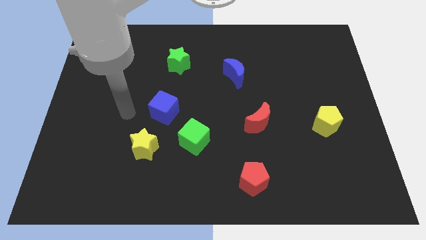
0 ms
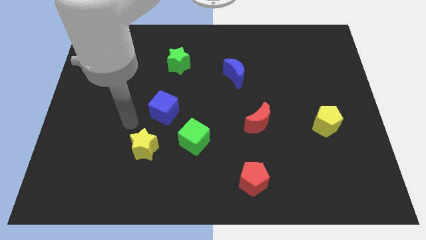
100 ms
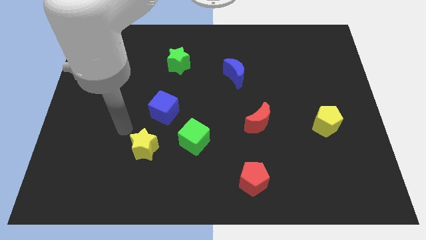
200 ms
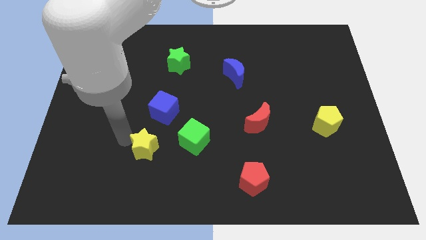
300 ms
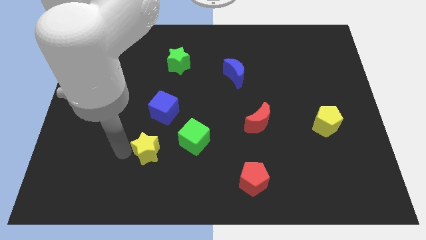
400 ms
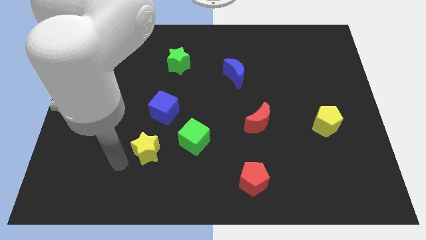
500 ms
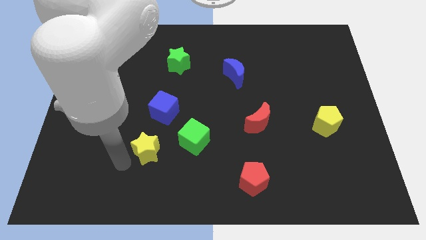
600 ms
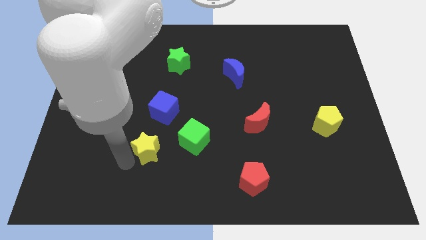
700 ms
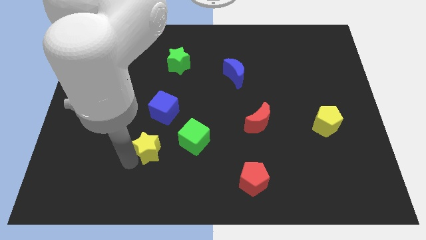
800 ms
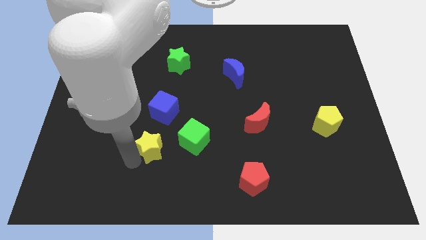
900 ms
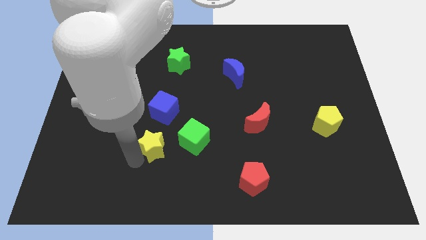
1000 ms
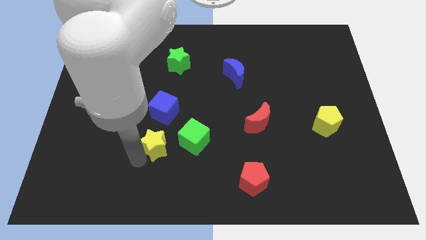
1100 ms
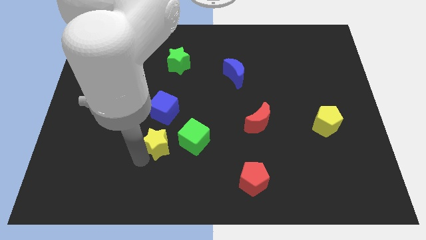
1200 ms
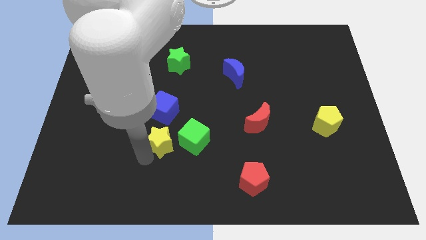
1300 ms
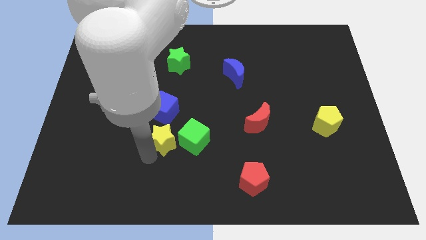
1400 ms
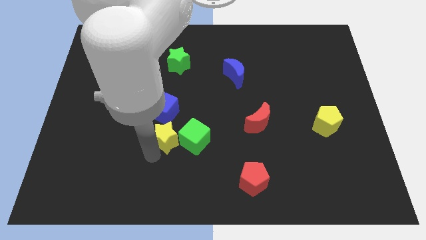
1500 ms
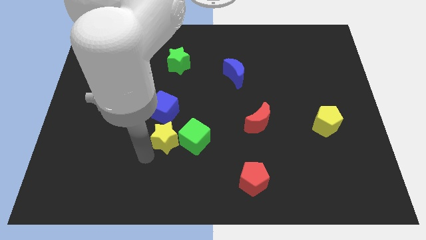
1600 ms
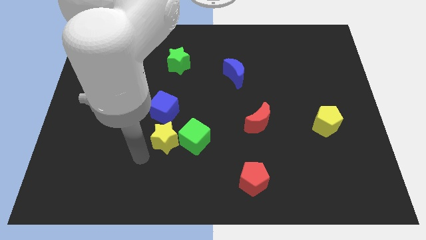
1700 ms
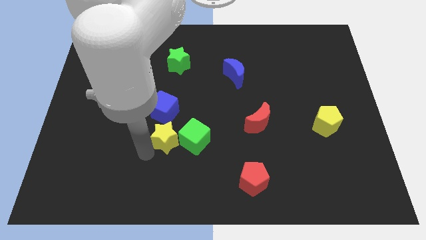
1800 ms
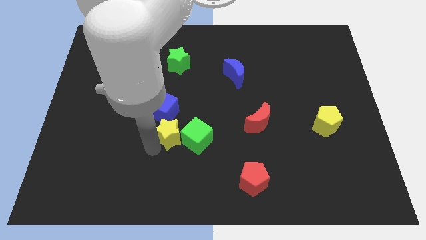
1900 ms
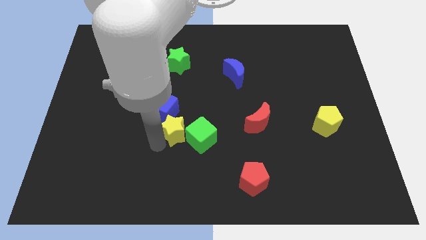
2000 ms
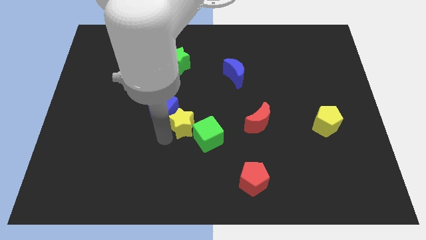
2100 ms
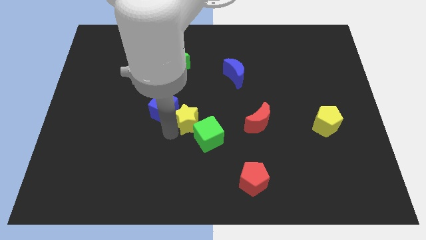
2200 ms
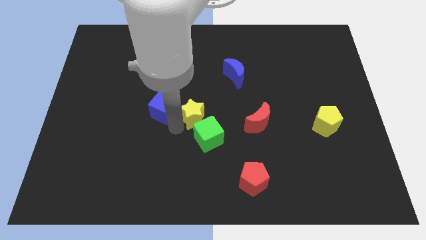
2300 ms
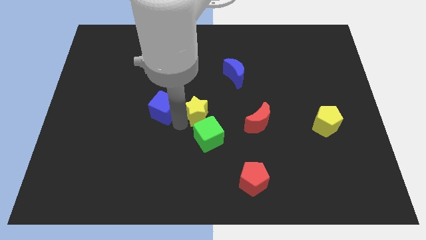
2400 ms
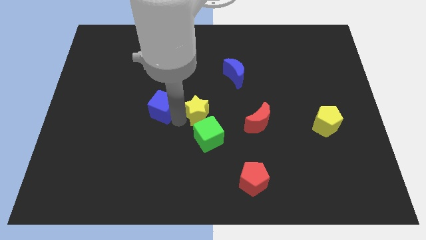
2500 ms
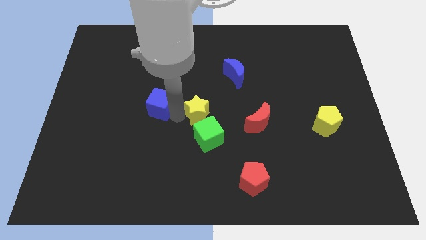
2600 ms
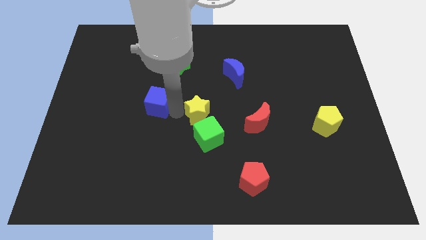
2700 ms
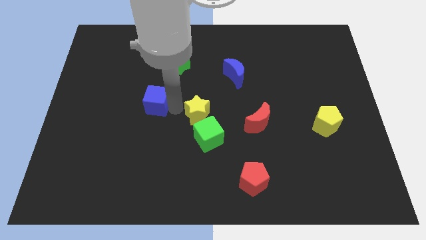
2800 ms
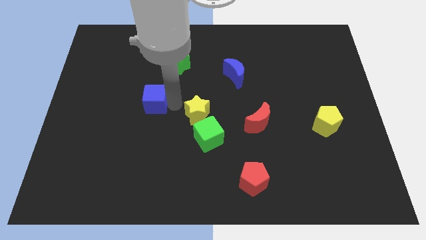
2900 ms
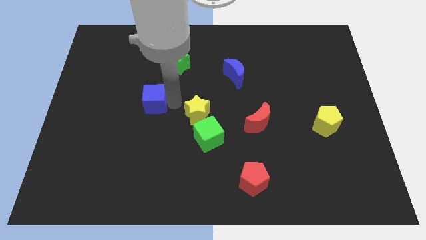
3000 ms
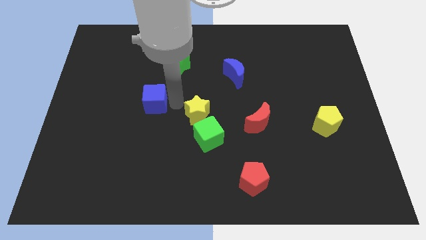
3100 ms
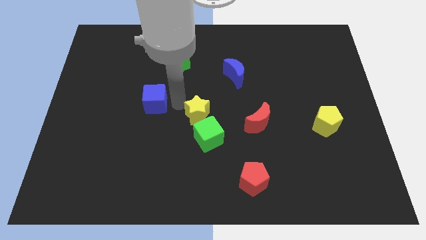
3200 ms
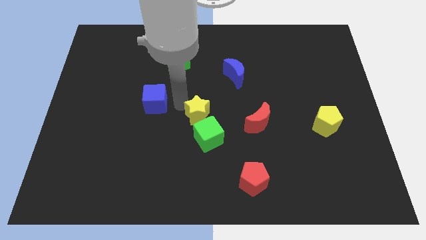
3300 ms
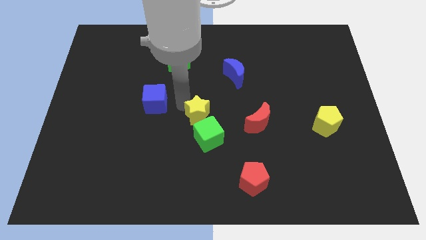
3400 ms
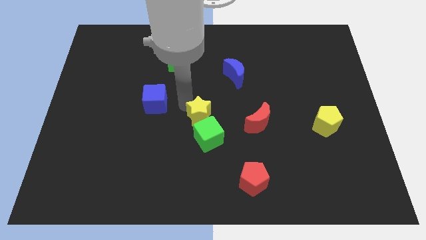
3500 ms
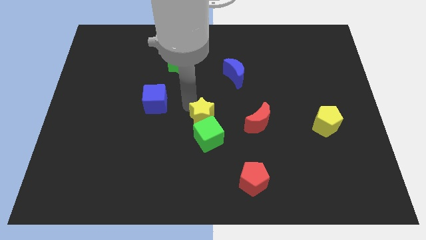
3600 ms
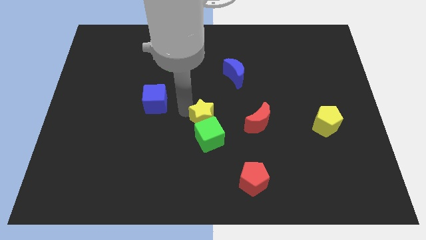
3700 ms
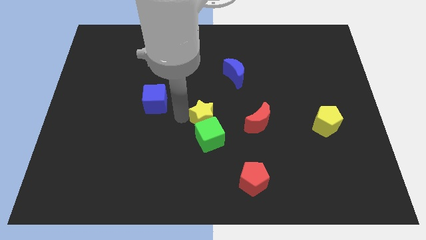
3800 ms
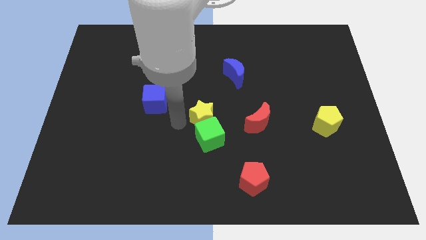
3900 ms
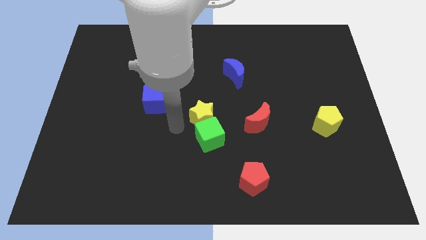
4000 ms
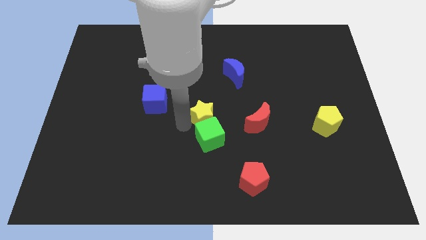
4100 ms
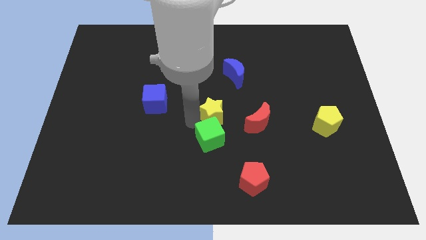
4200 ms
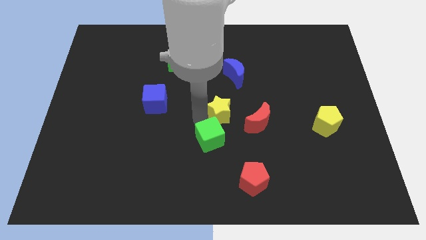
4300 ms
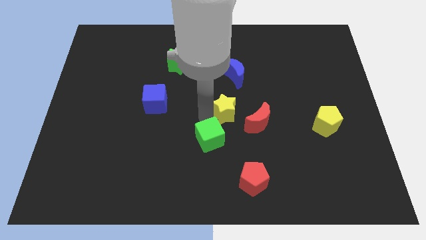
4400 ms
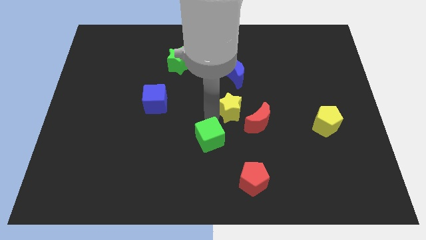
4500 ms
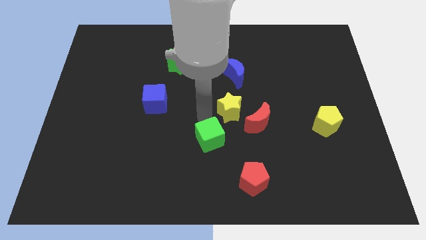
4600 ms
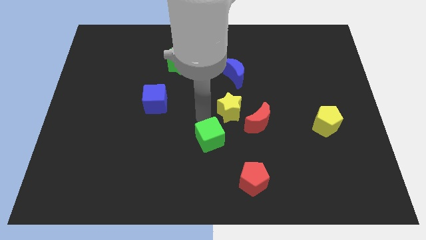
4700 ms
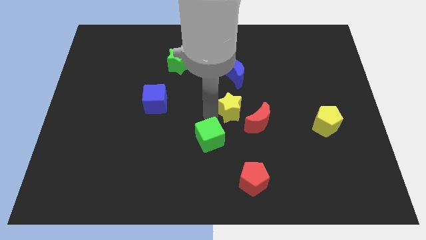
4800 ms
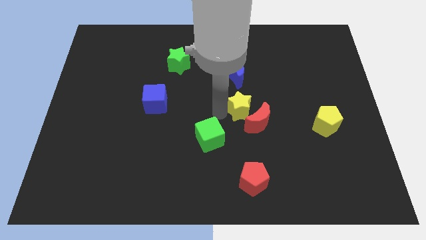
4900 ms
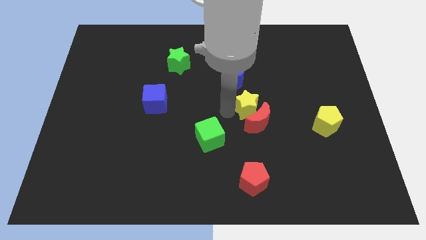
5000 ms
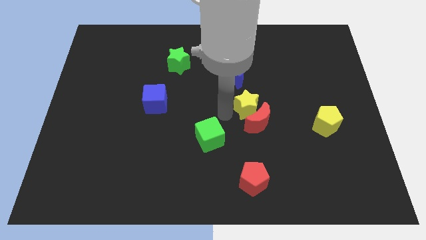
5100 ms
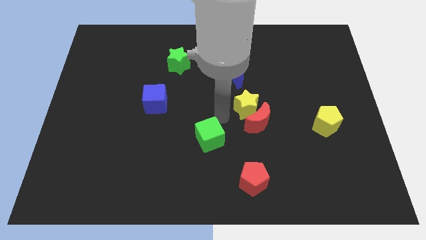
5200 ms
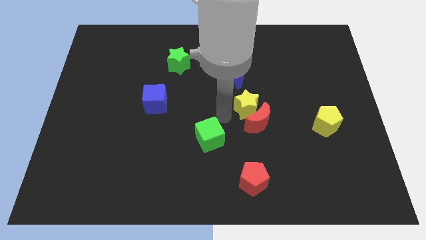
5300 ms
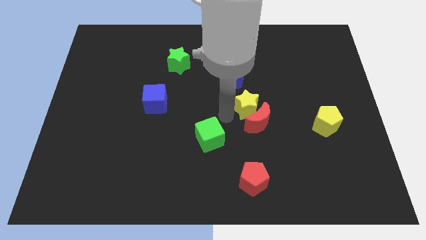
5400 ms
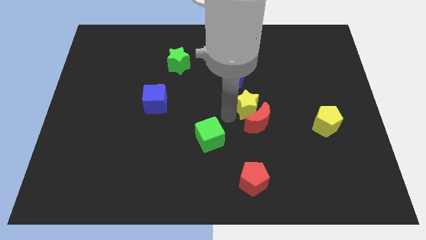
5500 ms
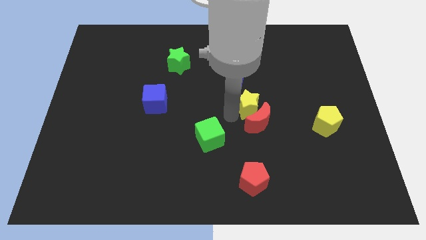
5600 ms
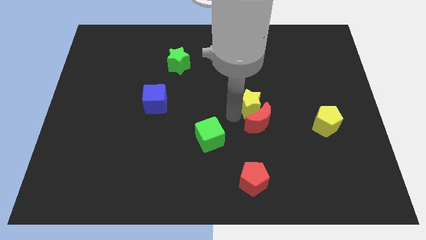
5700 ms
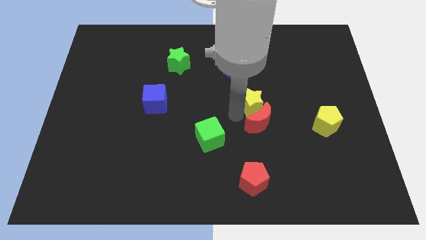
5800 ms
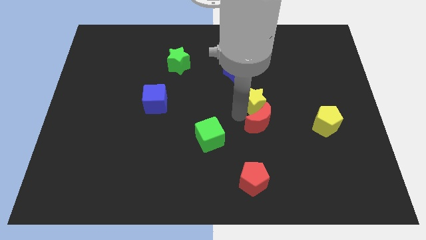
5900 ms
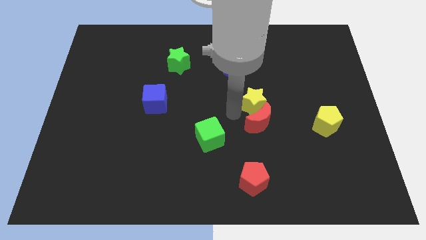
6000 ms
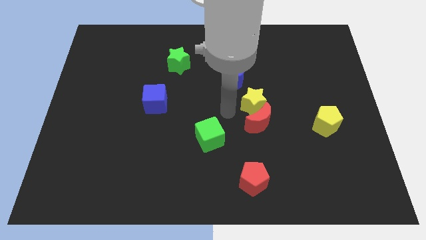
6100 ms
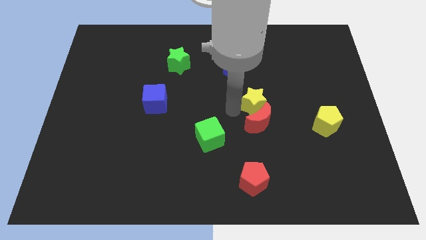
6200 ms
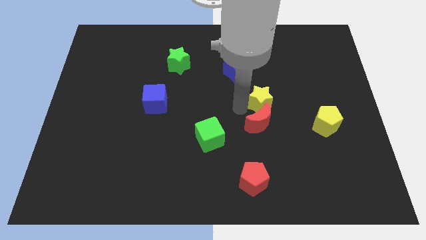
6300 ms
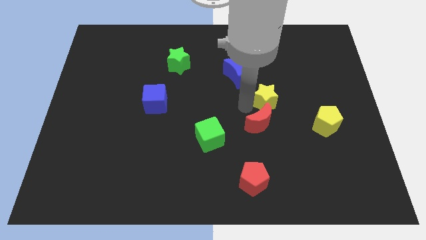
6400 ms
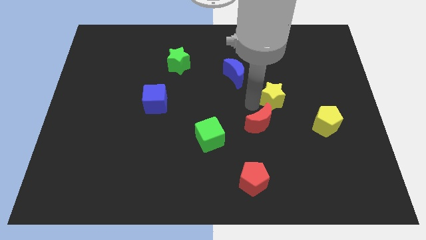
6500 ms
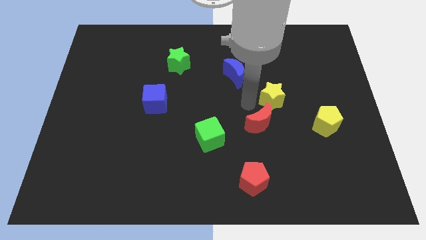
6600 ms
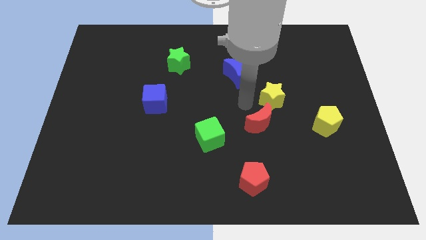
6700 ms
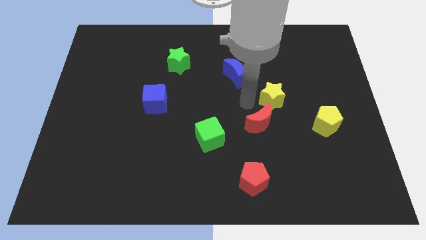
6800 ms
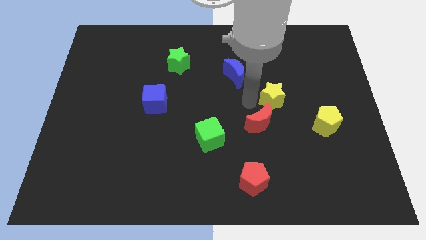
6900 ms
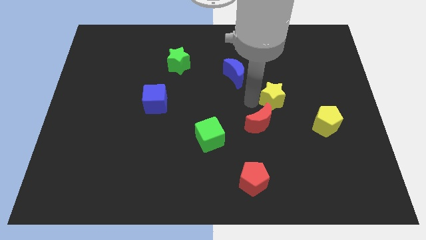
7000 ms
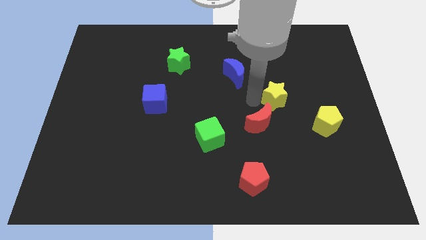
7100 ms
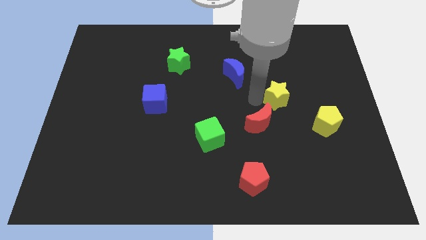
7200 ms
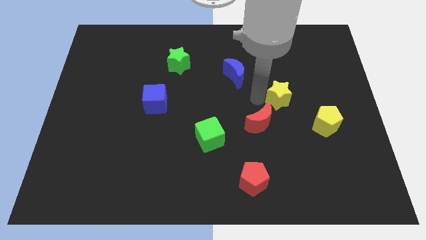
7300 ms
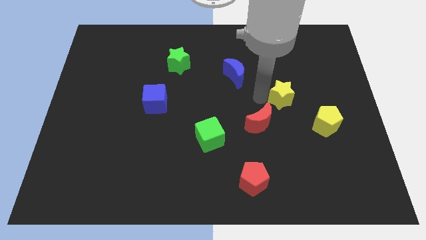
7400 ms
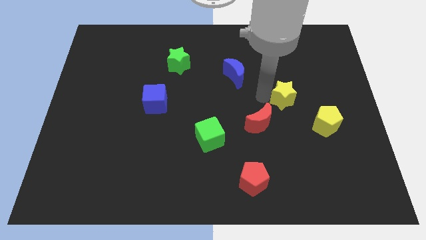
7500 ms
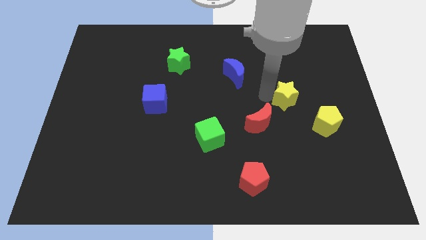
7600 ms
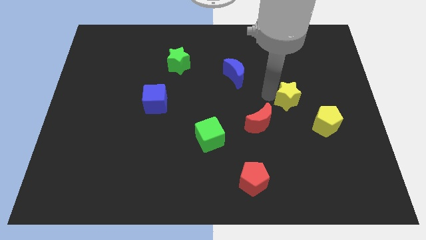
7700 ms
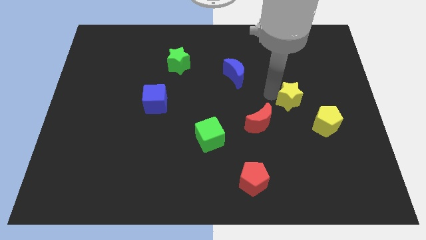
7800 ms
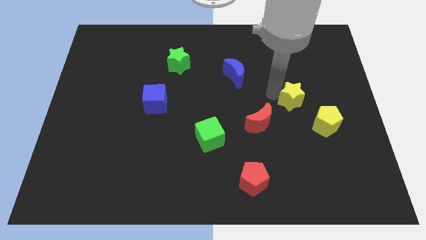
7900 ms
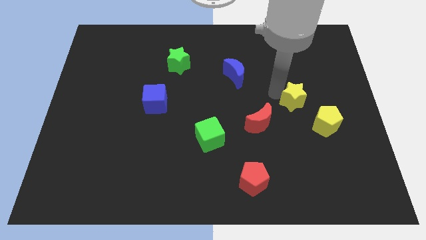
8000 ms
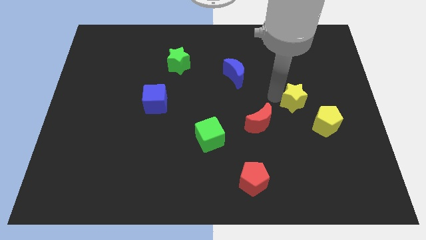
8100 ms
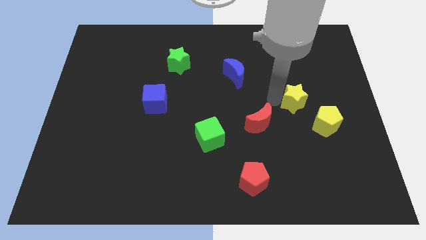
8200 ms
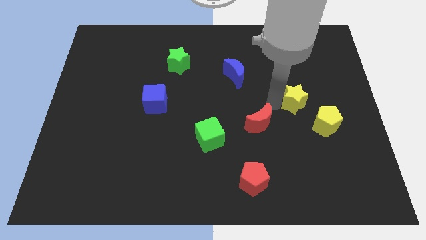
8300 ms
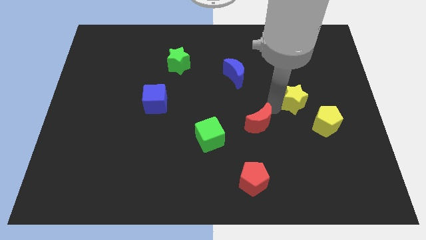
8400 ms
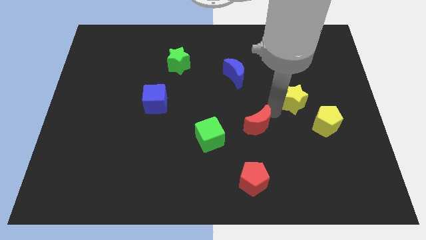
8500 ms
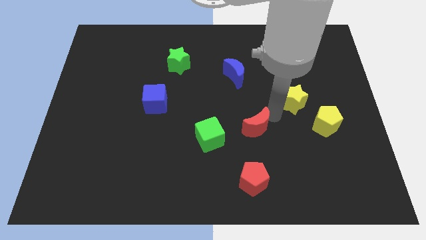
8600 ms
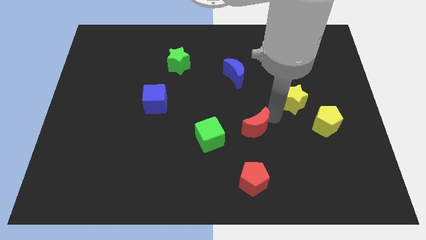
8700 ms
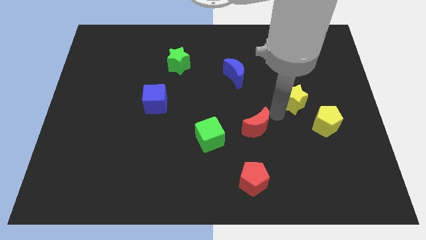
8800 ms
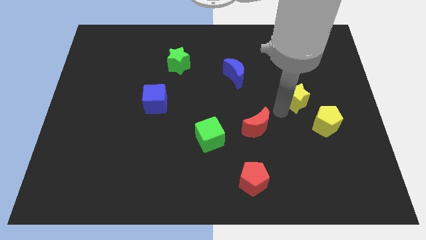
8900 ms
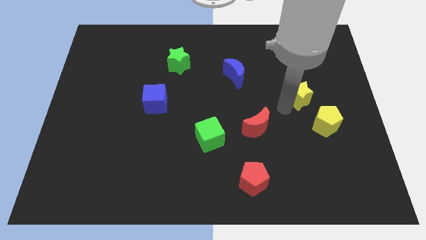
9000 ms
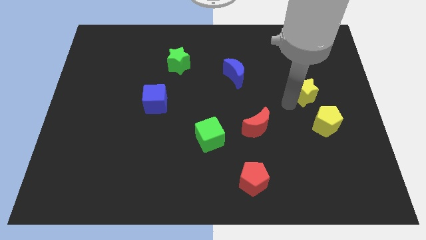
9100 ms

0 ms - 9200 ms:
move the yellow star above the yellow pentagon
